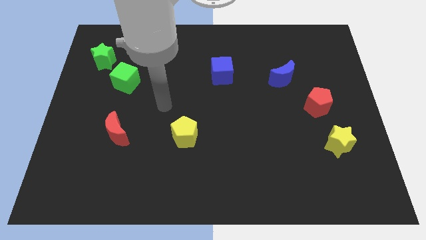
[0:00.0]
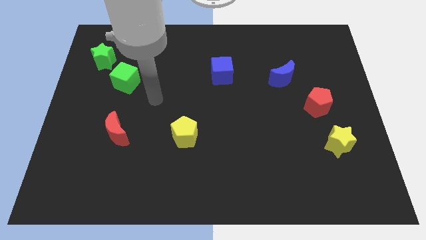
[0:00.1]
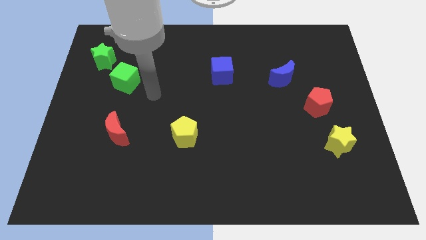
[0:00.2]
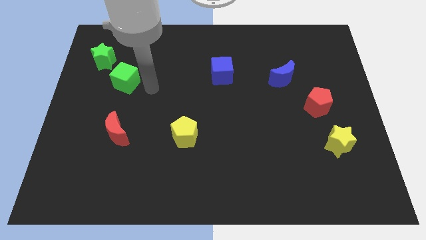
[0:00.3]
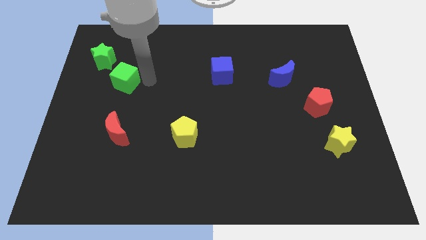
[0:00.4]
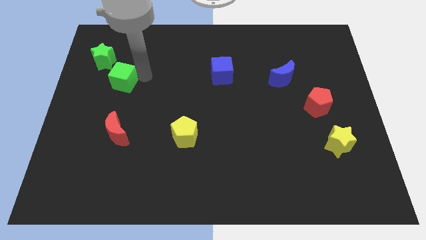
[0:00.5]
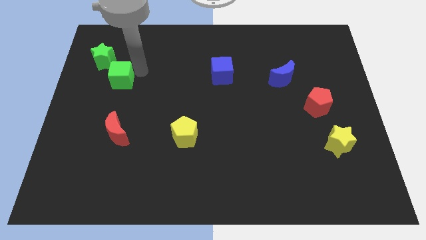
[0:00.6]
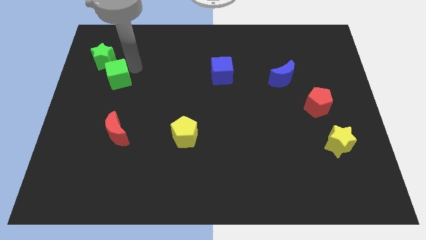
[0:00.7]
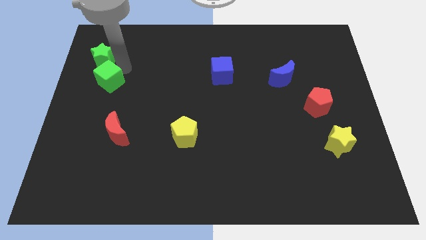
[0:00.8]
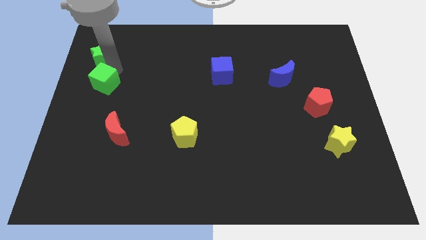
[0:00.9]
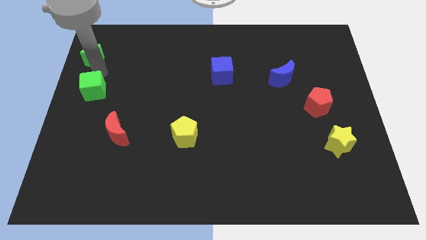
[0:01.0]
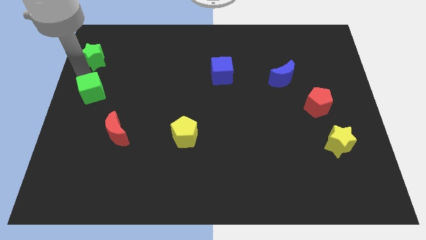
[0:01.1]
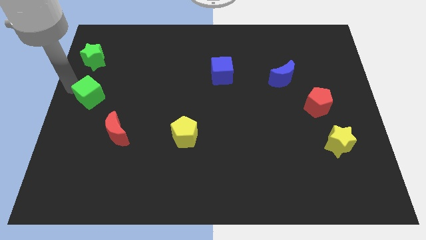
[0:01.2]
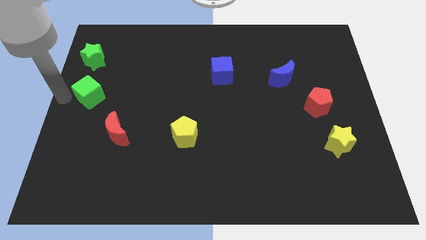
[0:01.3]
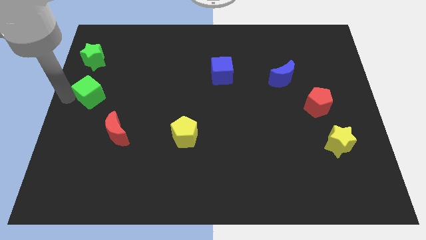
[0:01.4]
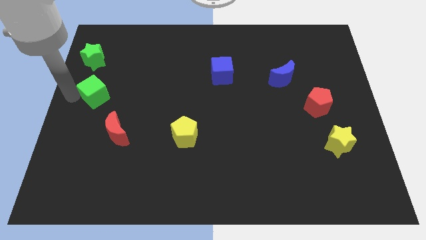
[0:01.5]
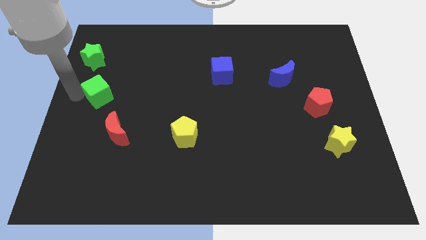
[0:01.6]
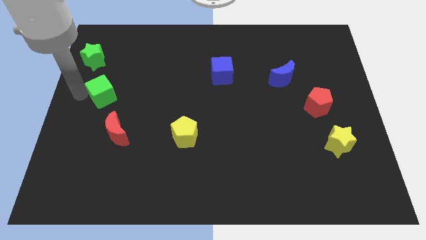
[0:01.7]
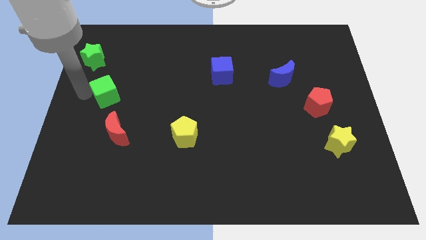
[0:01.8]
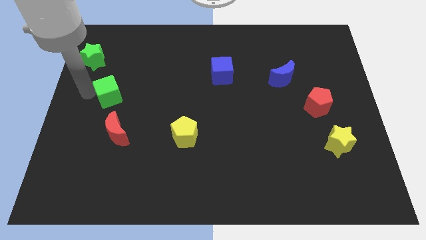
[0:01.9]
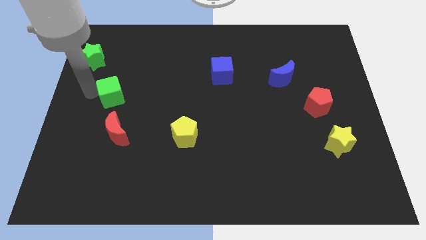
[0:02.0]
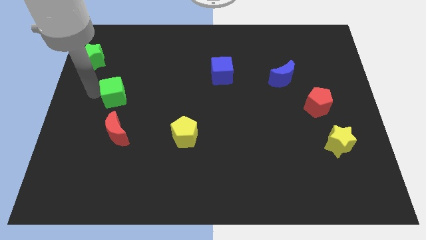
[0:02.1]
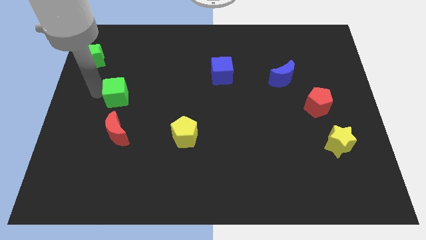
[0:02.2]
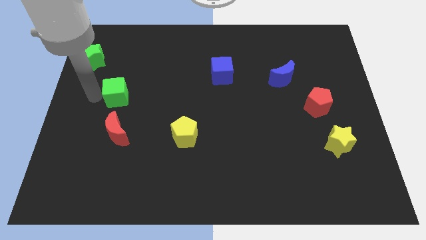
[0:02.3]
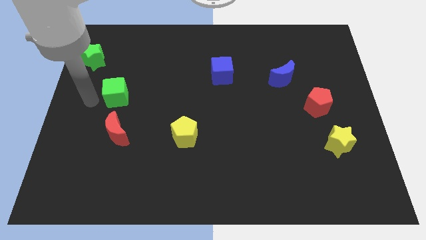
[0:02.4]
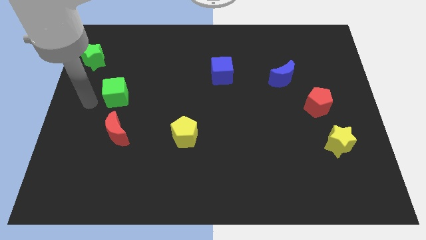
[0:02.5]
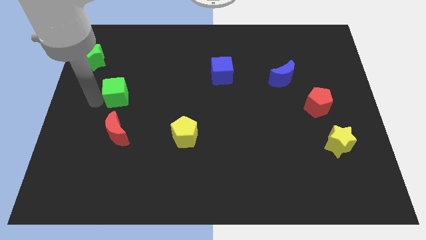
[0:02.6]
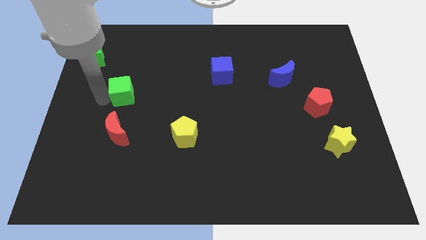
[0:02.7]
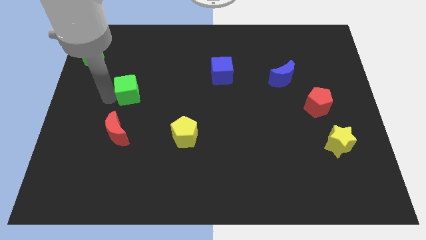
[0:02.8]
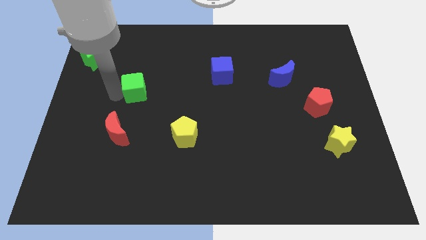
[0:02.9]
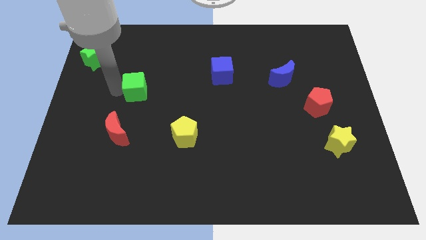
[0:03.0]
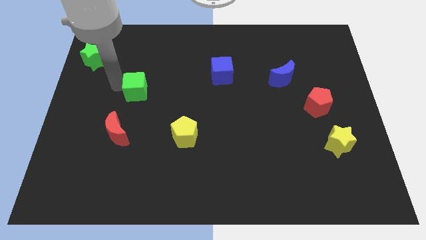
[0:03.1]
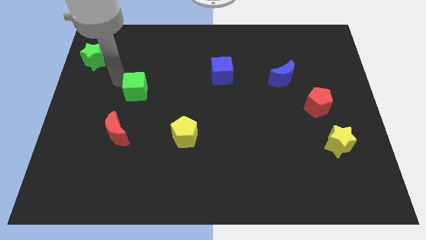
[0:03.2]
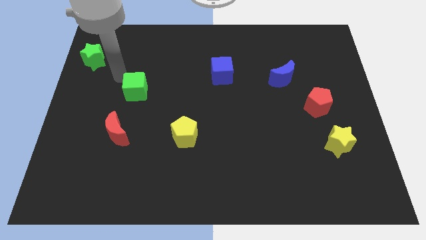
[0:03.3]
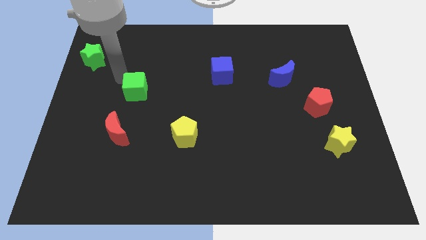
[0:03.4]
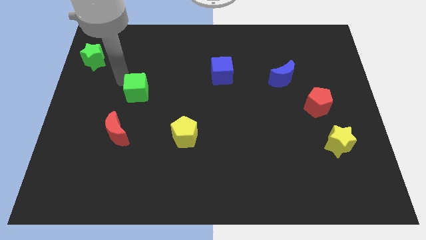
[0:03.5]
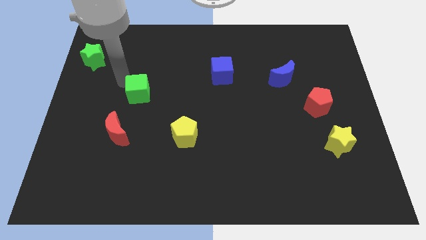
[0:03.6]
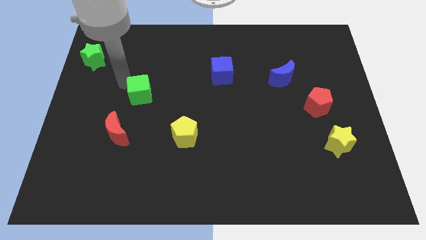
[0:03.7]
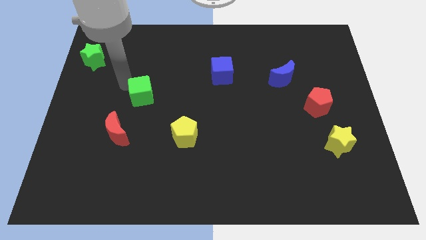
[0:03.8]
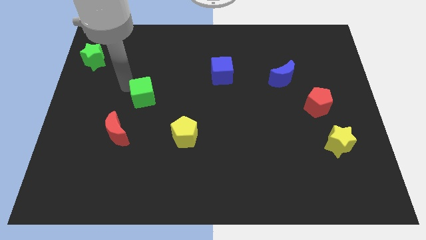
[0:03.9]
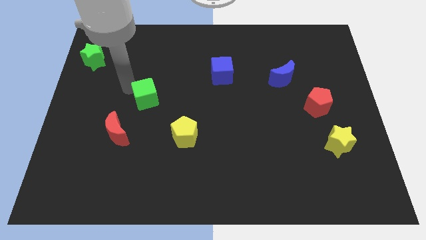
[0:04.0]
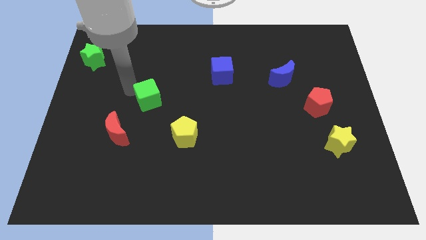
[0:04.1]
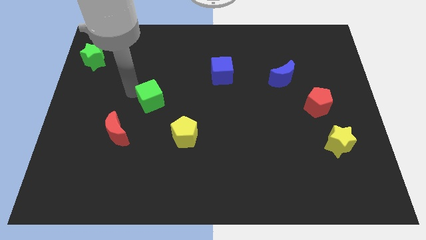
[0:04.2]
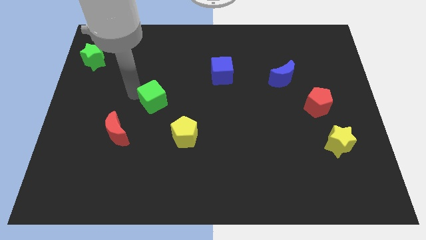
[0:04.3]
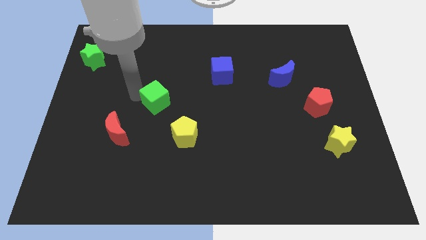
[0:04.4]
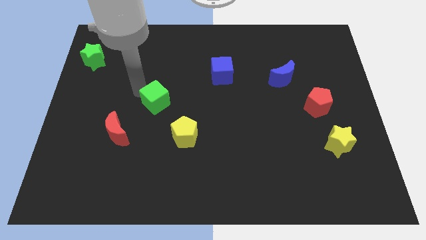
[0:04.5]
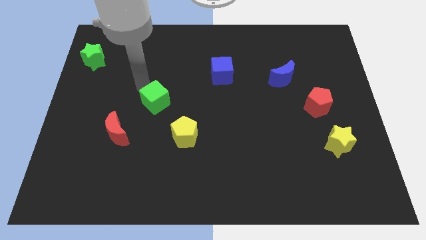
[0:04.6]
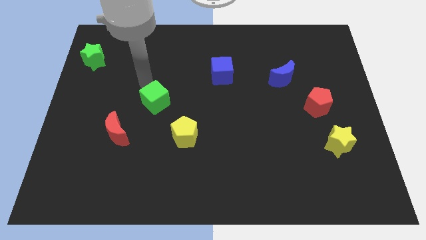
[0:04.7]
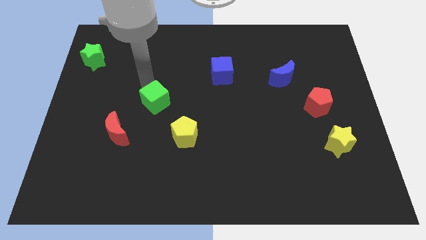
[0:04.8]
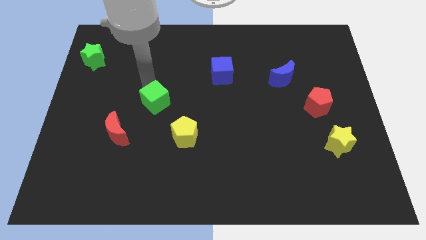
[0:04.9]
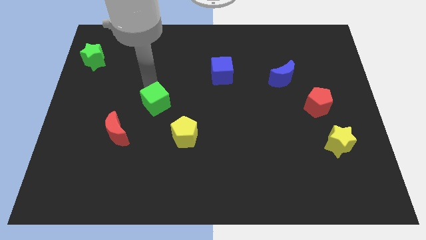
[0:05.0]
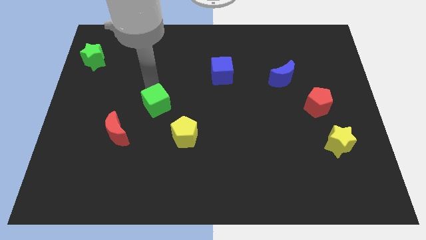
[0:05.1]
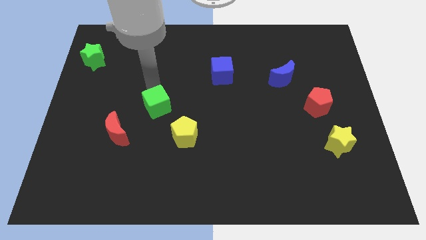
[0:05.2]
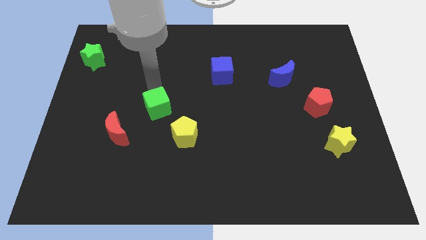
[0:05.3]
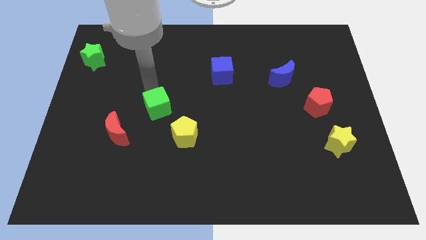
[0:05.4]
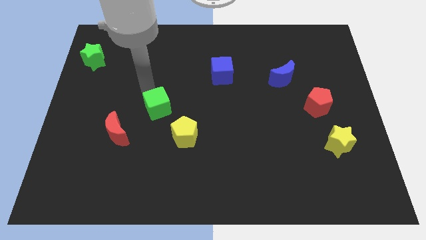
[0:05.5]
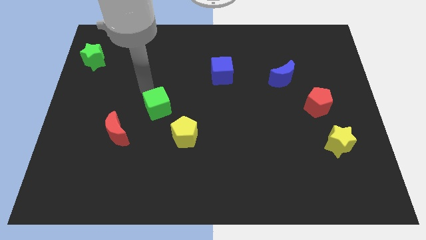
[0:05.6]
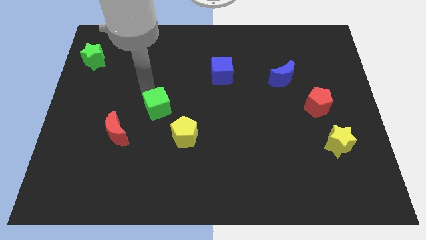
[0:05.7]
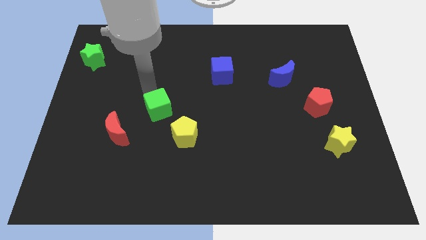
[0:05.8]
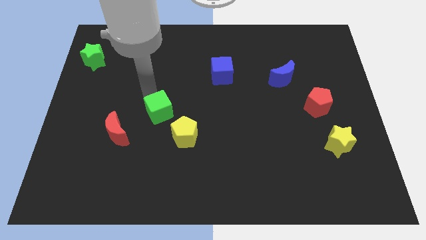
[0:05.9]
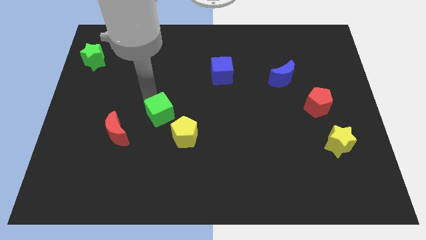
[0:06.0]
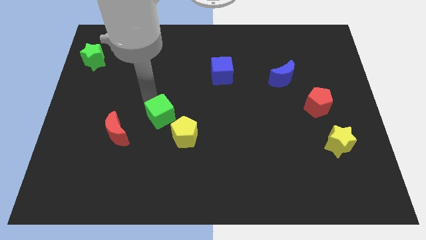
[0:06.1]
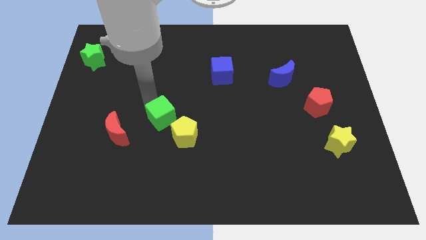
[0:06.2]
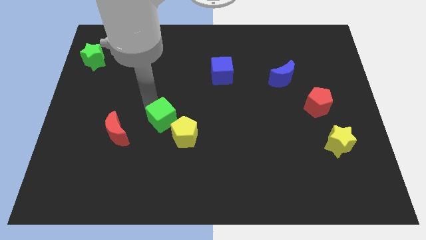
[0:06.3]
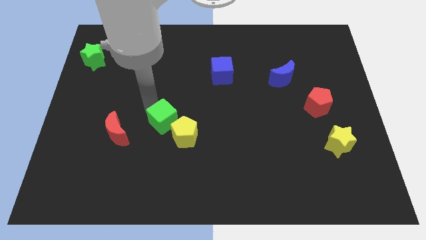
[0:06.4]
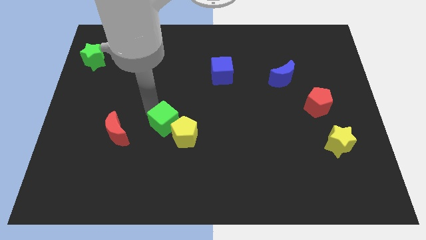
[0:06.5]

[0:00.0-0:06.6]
move the green cube towards the yellow pentagon

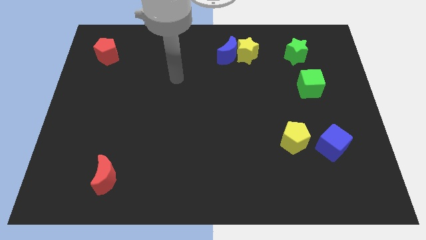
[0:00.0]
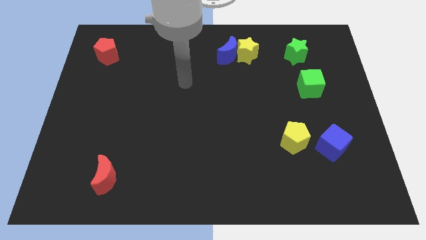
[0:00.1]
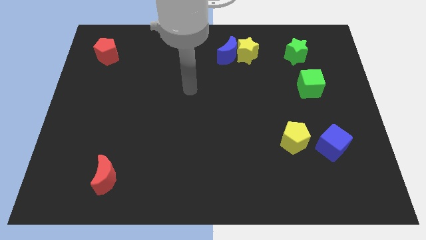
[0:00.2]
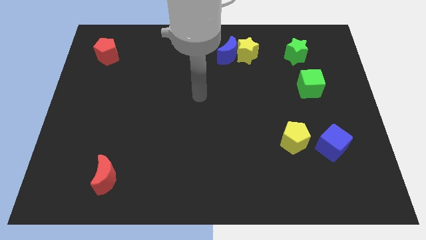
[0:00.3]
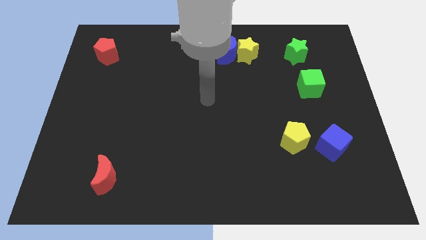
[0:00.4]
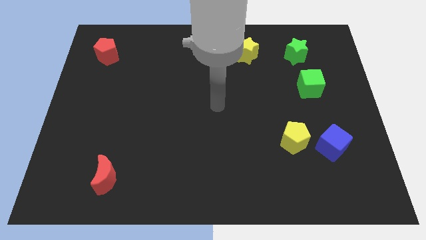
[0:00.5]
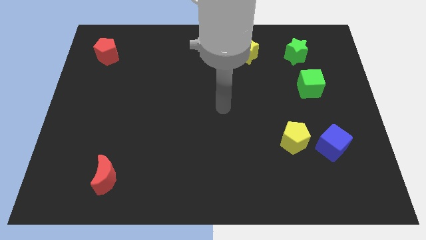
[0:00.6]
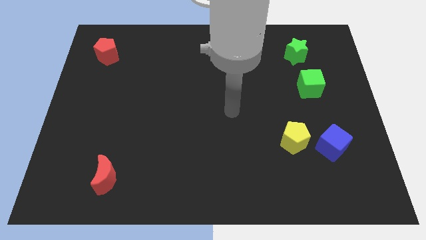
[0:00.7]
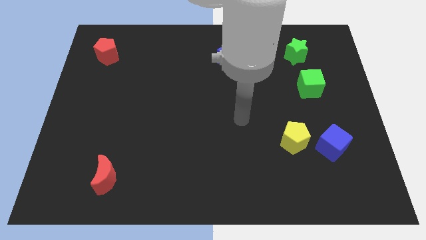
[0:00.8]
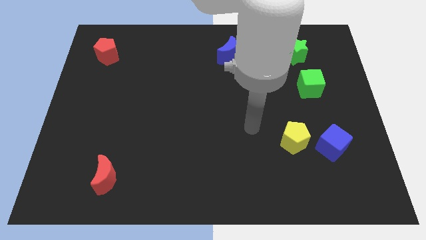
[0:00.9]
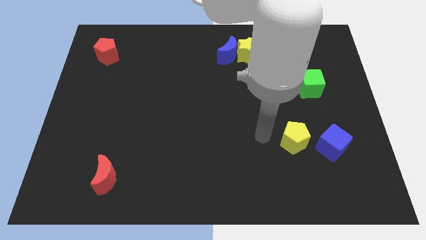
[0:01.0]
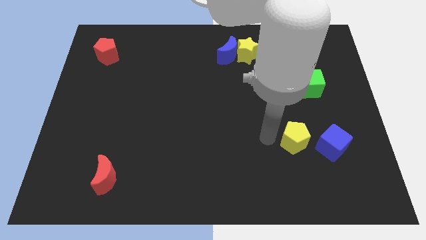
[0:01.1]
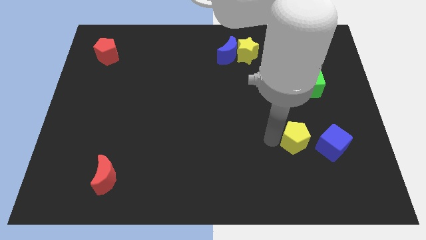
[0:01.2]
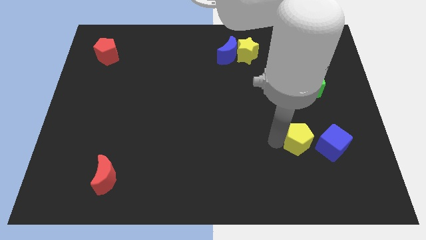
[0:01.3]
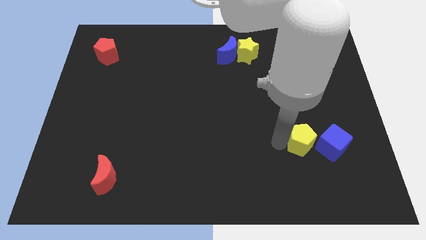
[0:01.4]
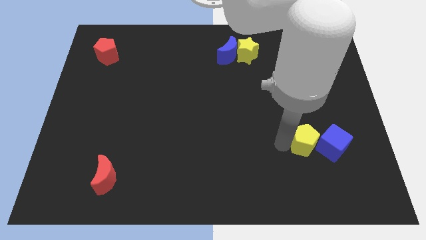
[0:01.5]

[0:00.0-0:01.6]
move the yellow pentagon close to the blue cube
